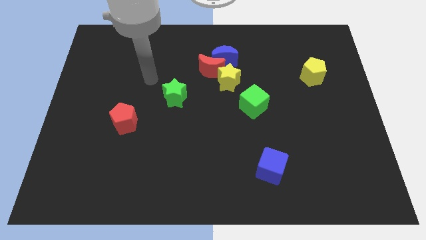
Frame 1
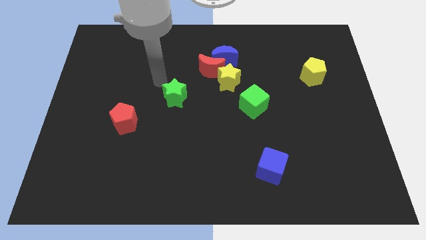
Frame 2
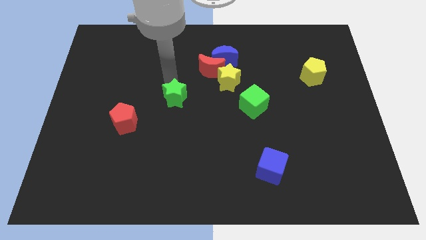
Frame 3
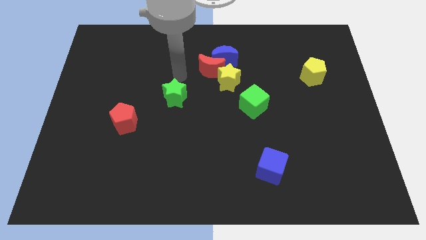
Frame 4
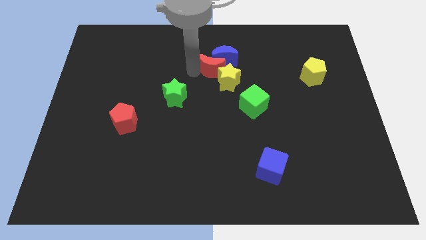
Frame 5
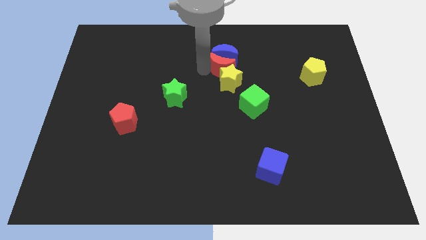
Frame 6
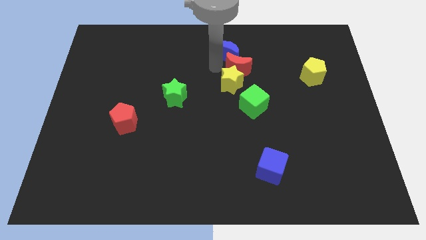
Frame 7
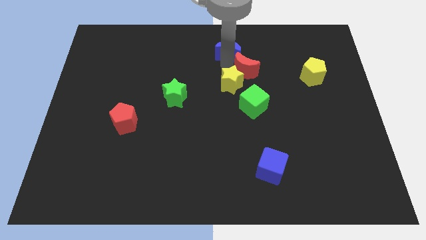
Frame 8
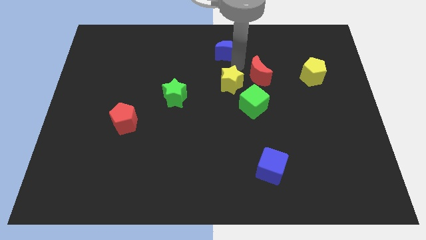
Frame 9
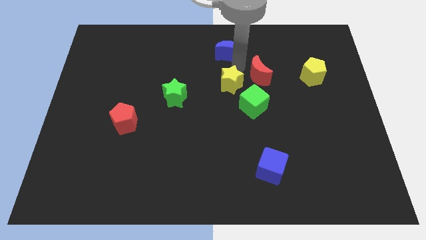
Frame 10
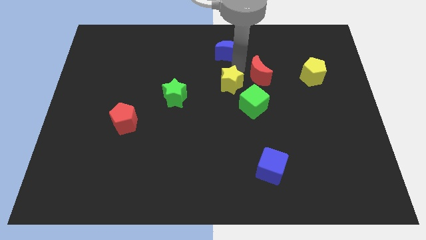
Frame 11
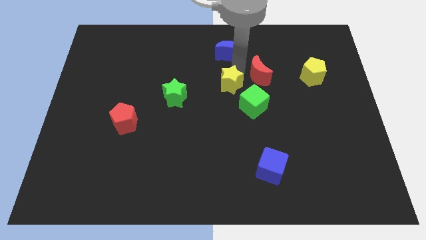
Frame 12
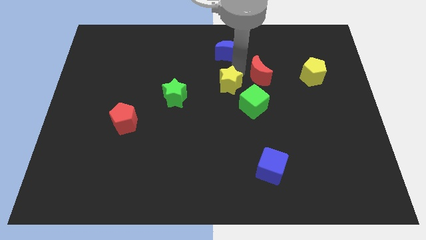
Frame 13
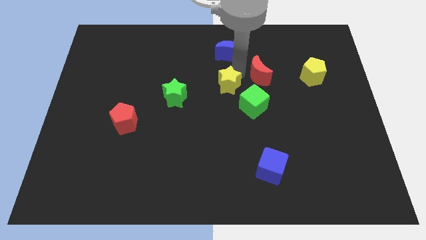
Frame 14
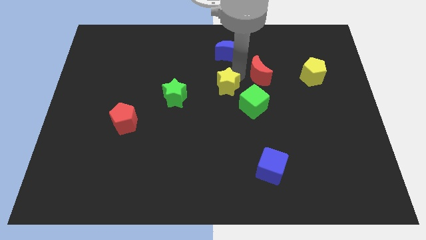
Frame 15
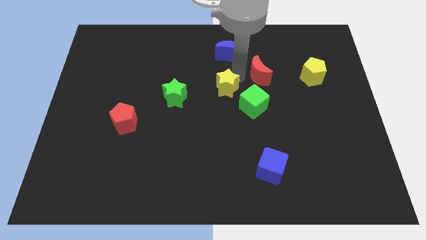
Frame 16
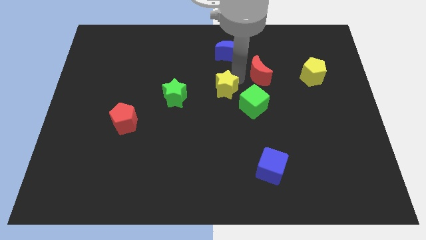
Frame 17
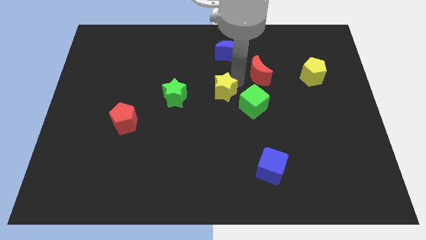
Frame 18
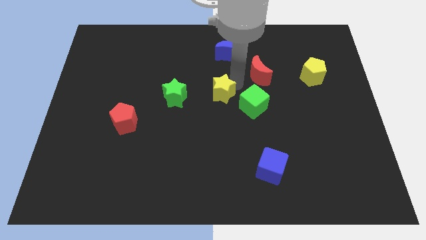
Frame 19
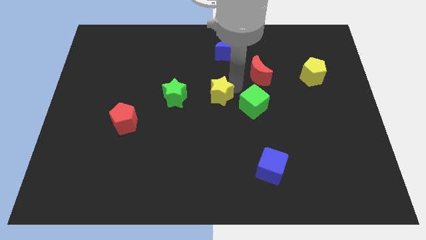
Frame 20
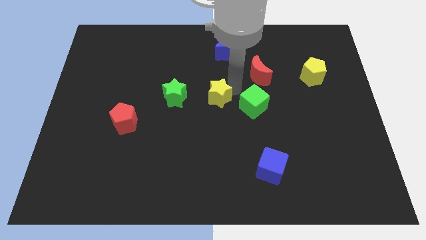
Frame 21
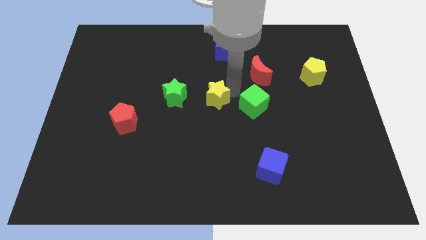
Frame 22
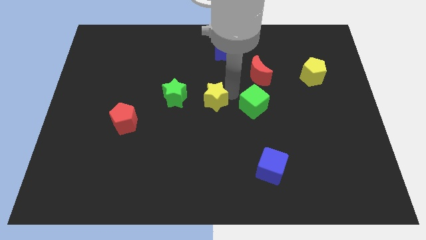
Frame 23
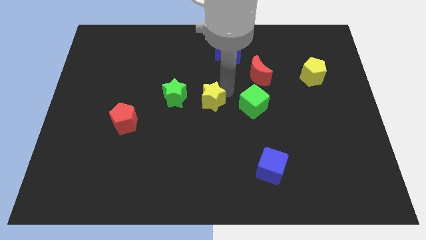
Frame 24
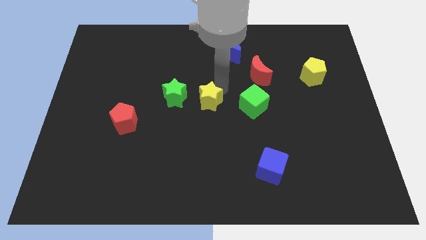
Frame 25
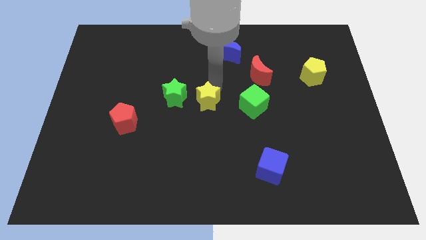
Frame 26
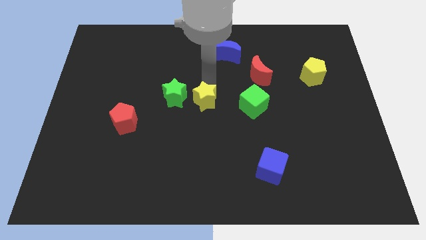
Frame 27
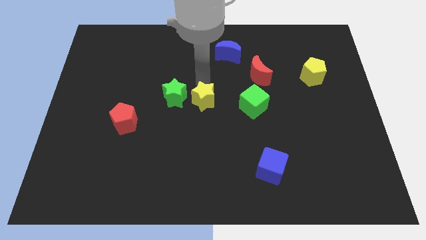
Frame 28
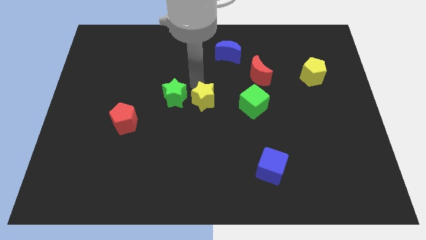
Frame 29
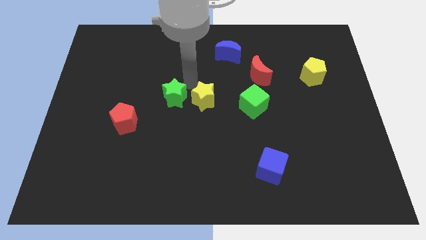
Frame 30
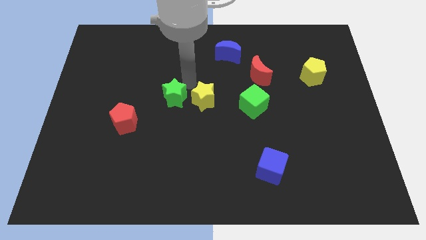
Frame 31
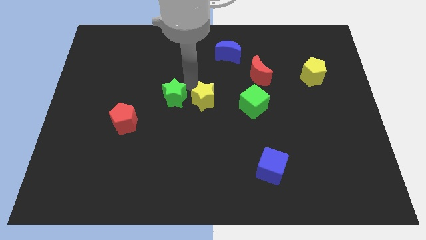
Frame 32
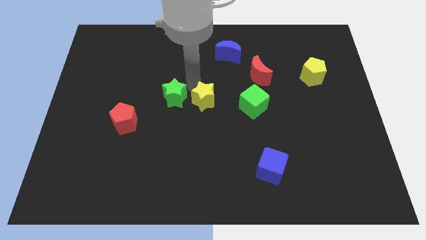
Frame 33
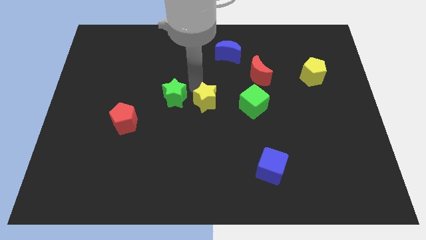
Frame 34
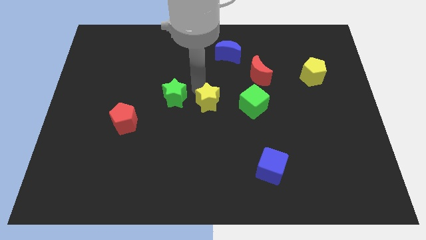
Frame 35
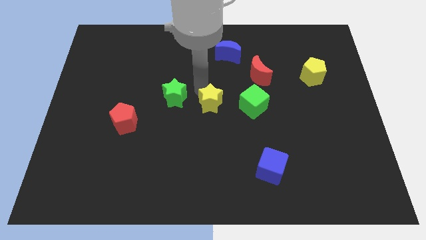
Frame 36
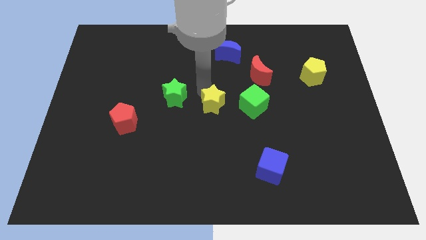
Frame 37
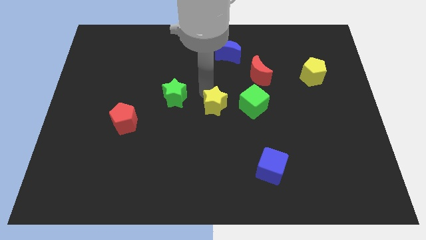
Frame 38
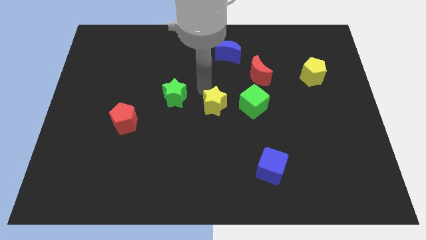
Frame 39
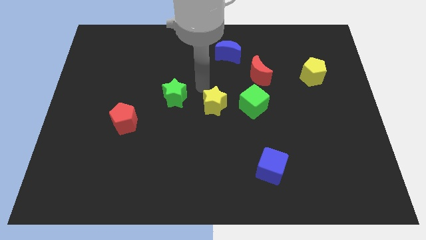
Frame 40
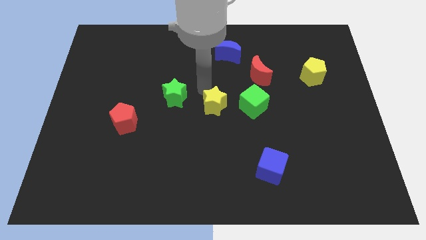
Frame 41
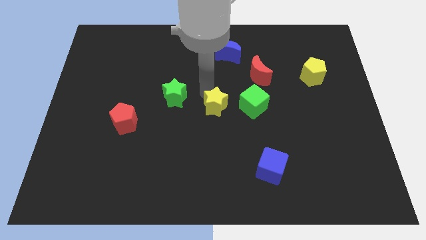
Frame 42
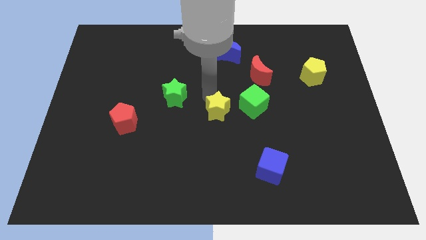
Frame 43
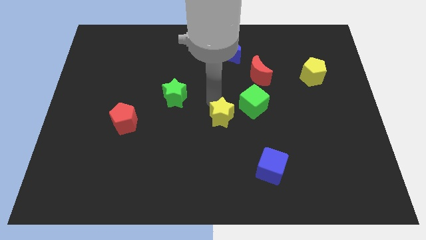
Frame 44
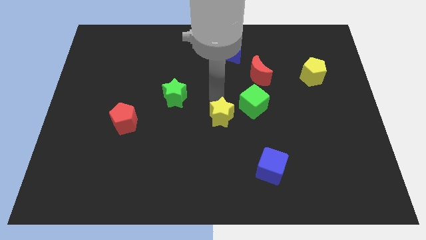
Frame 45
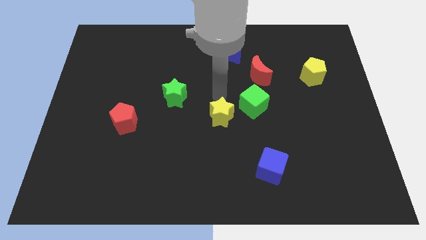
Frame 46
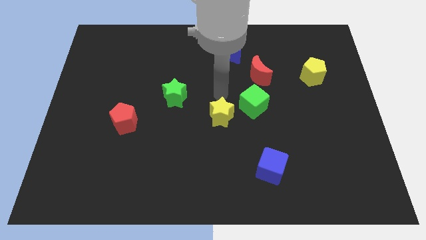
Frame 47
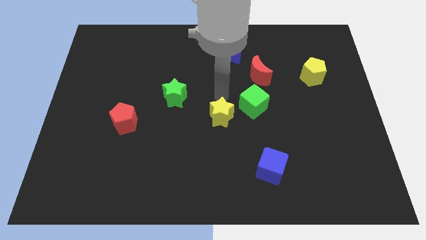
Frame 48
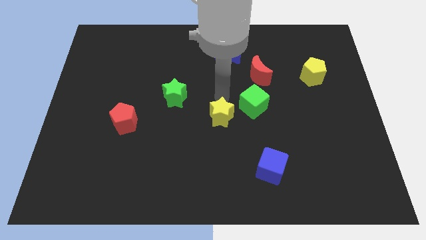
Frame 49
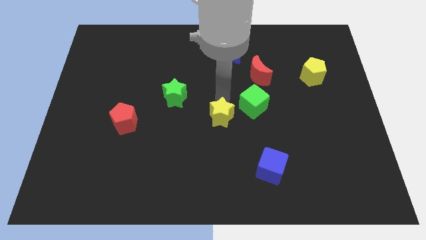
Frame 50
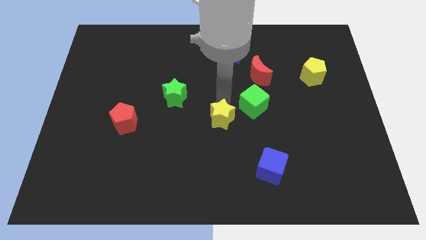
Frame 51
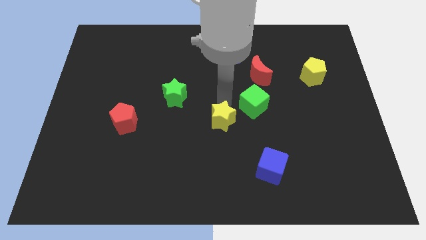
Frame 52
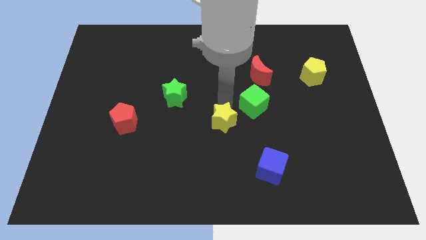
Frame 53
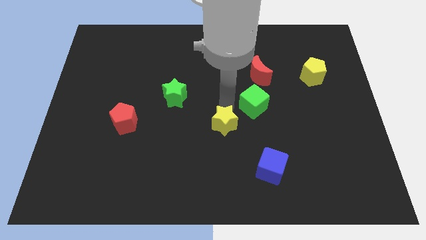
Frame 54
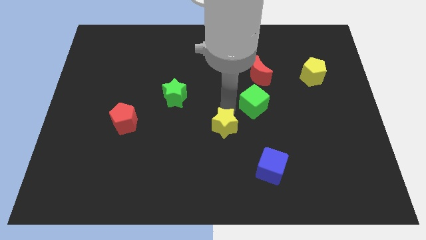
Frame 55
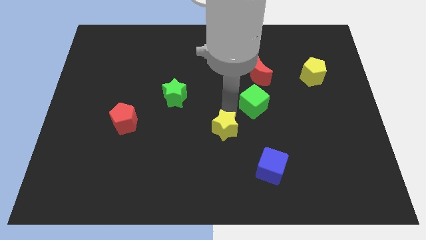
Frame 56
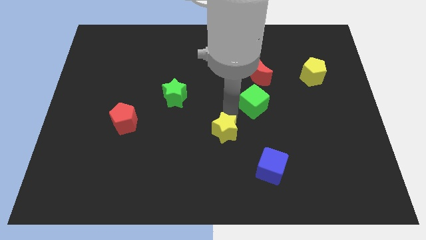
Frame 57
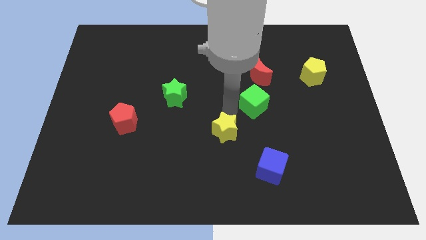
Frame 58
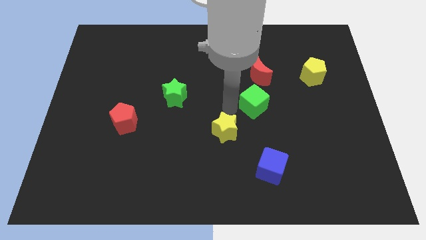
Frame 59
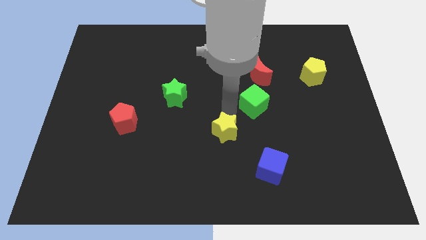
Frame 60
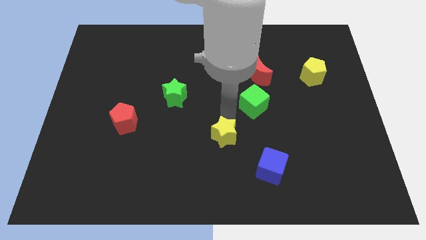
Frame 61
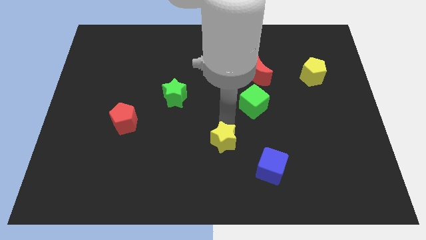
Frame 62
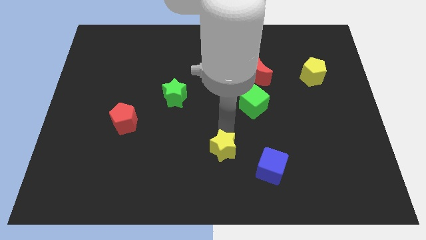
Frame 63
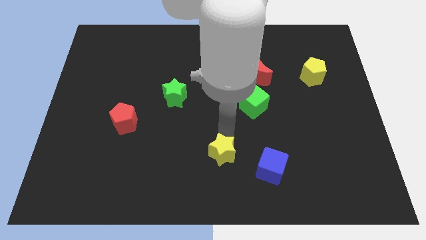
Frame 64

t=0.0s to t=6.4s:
slide the yellow star to the bottom side
